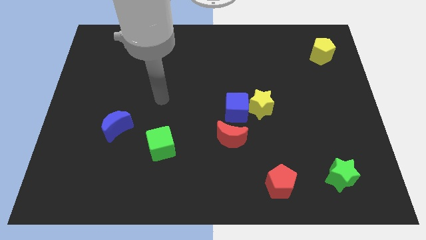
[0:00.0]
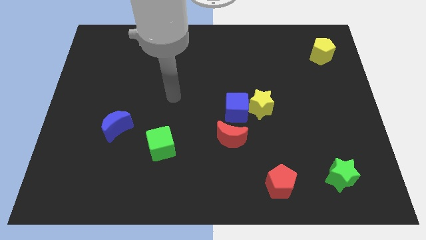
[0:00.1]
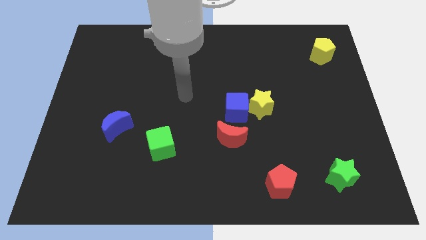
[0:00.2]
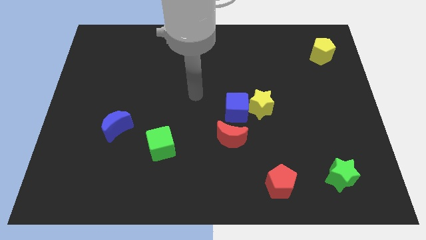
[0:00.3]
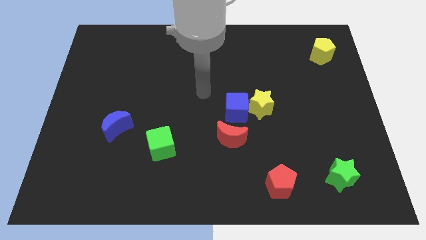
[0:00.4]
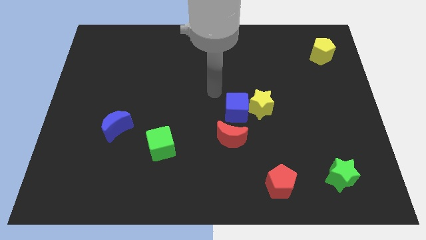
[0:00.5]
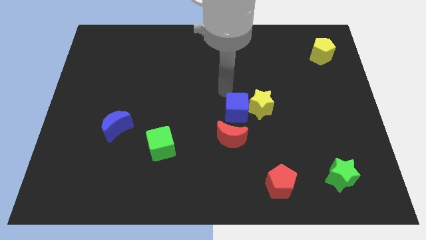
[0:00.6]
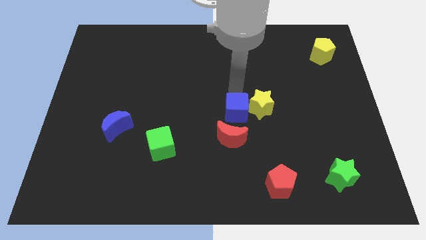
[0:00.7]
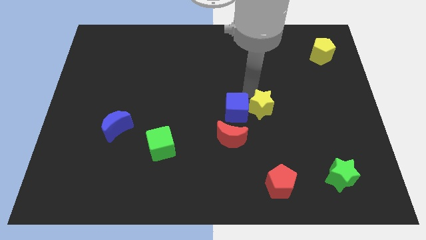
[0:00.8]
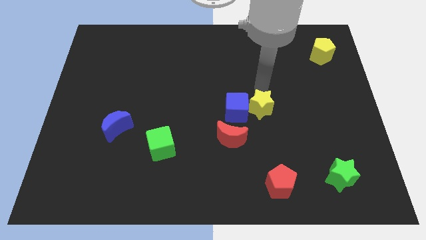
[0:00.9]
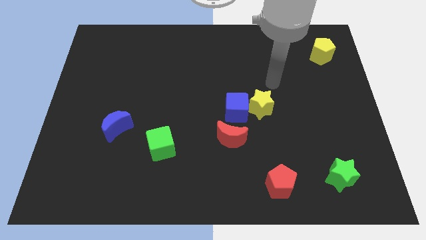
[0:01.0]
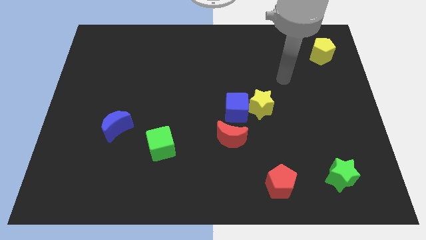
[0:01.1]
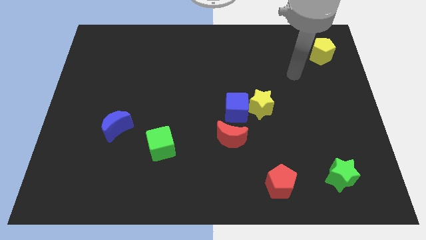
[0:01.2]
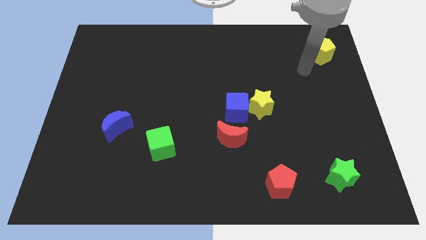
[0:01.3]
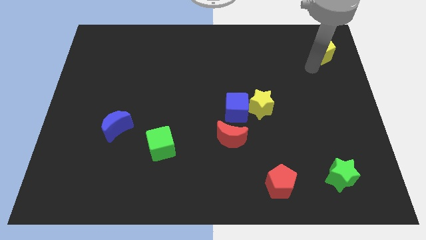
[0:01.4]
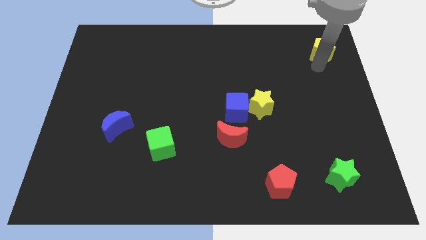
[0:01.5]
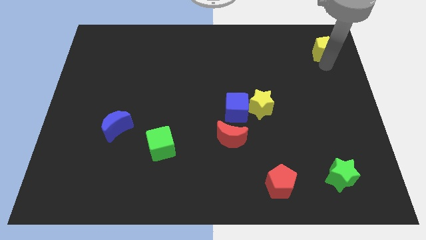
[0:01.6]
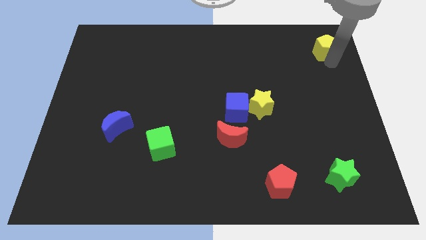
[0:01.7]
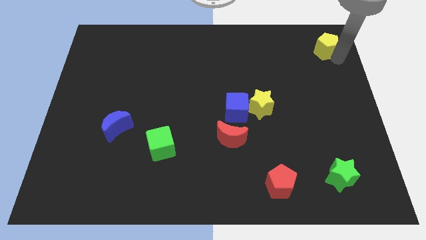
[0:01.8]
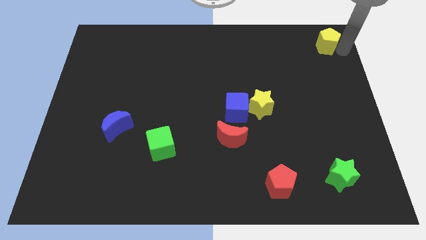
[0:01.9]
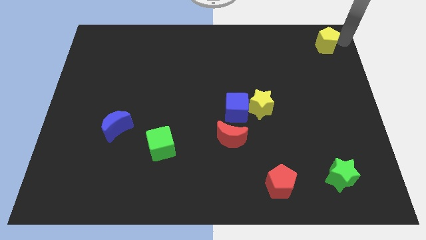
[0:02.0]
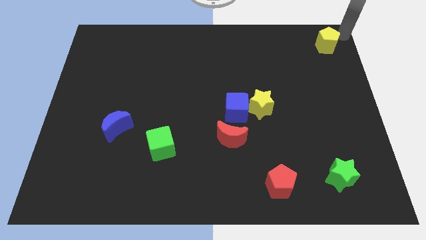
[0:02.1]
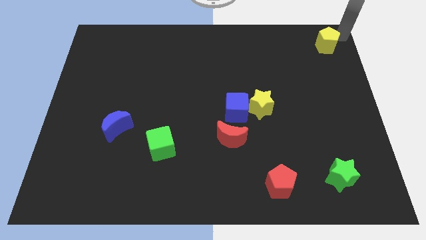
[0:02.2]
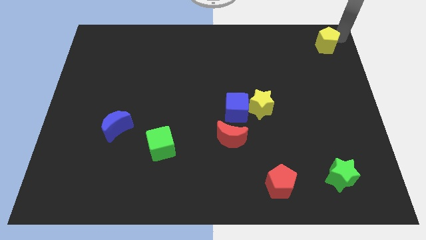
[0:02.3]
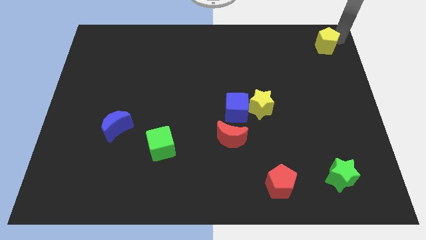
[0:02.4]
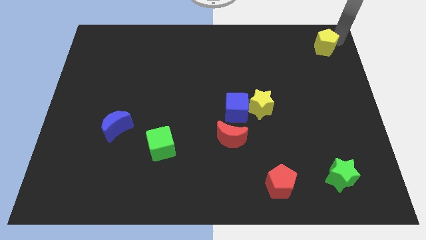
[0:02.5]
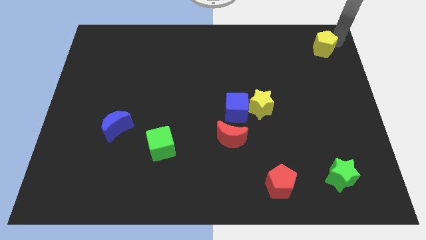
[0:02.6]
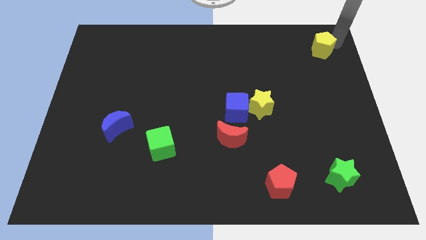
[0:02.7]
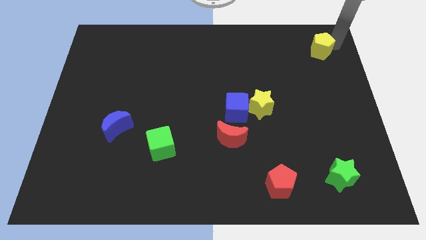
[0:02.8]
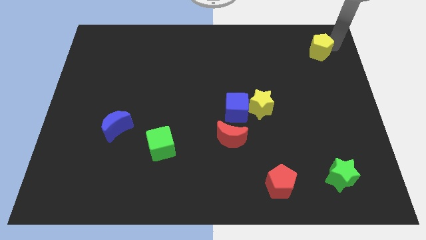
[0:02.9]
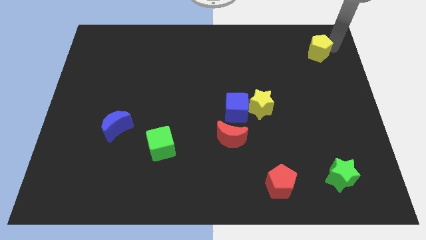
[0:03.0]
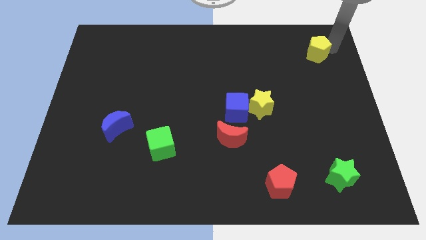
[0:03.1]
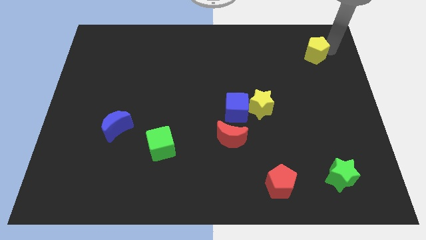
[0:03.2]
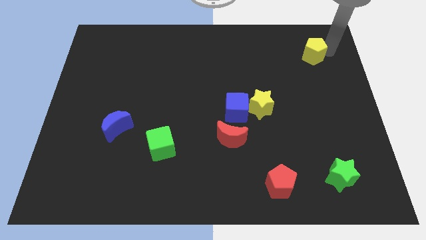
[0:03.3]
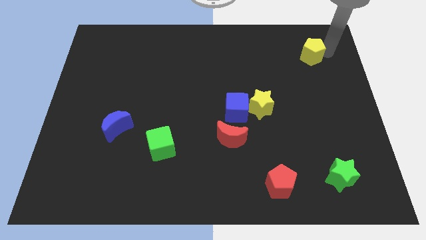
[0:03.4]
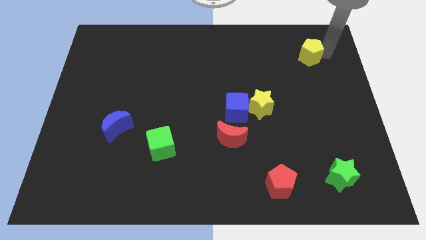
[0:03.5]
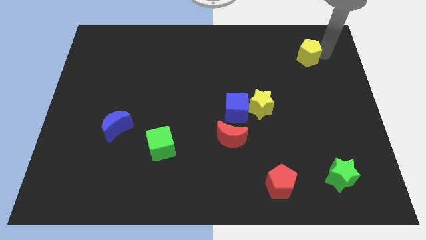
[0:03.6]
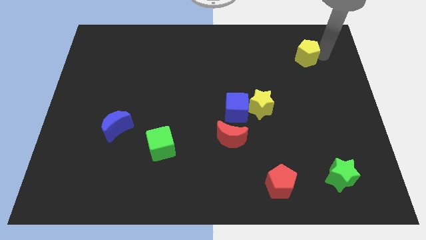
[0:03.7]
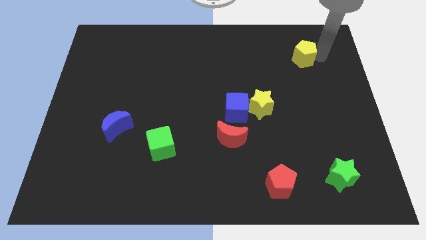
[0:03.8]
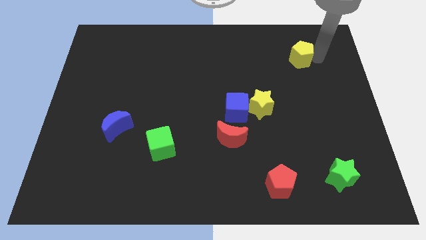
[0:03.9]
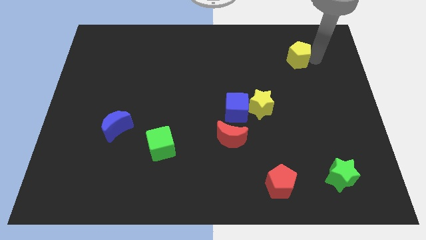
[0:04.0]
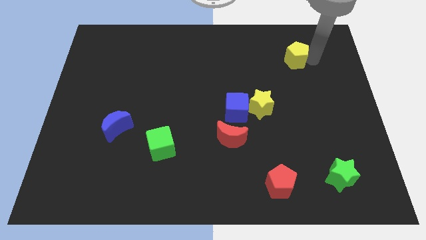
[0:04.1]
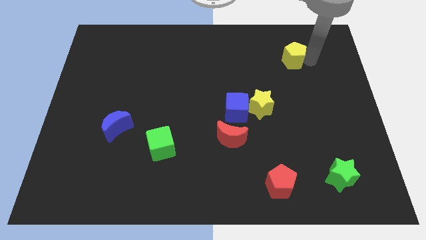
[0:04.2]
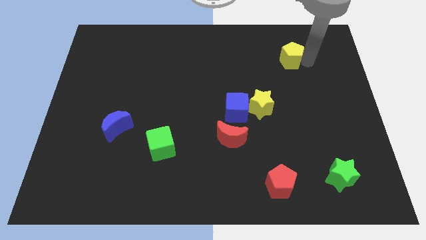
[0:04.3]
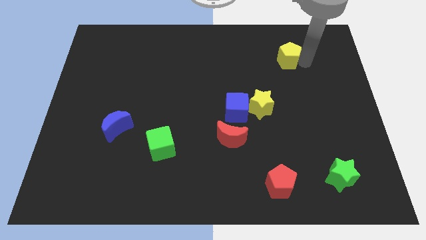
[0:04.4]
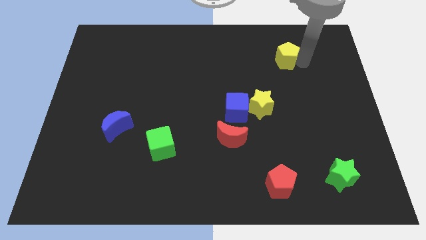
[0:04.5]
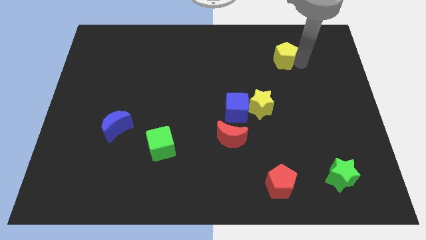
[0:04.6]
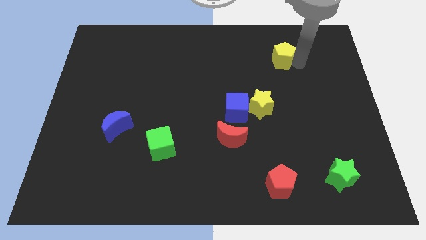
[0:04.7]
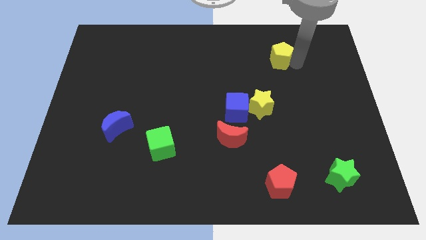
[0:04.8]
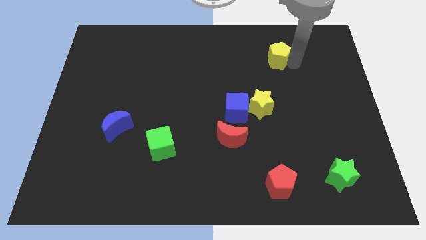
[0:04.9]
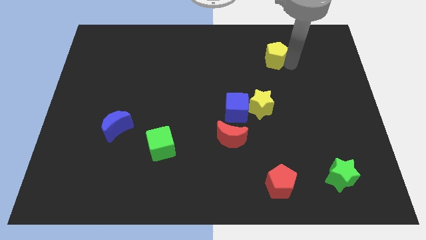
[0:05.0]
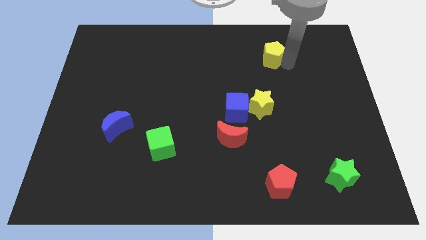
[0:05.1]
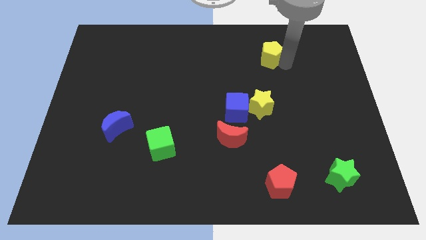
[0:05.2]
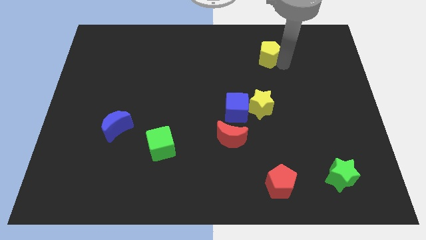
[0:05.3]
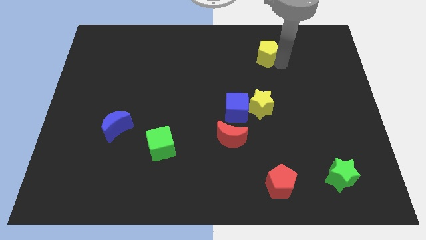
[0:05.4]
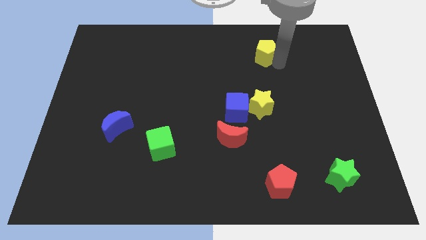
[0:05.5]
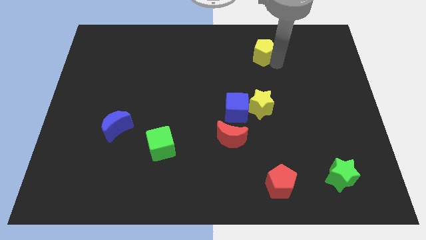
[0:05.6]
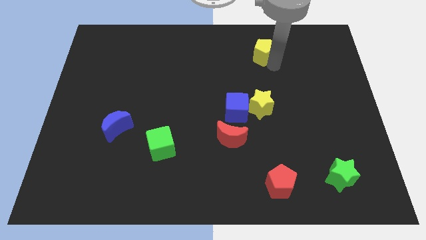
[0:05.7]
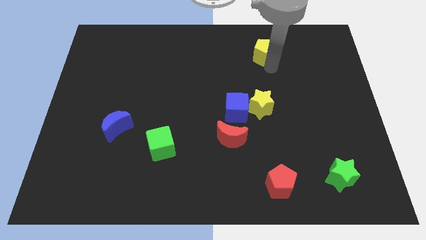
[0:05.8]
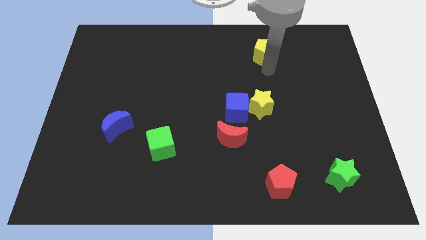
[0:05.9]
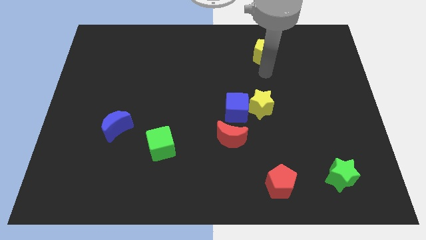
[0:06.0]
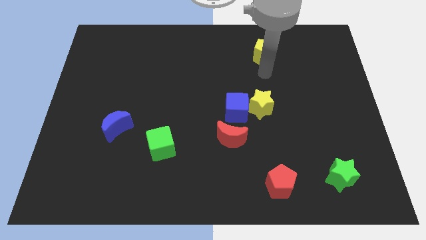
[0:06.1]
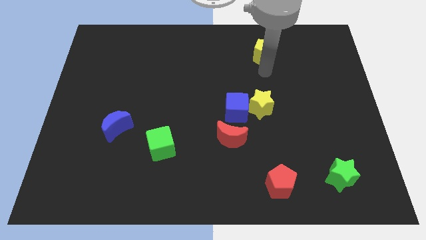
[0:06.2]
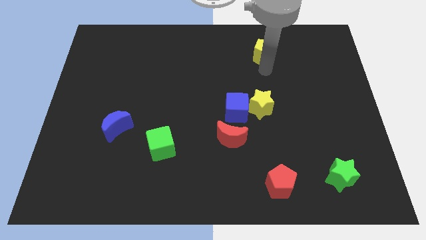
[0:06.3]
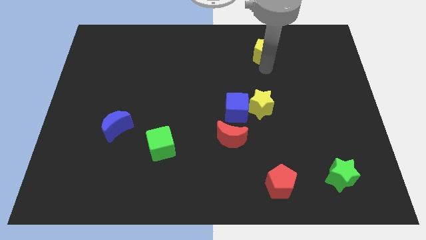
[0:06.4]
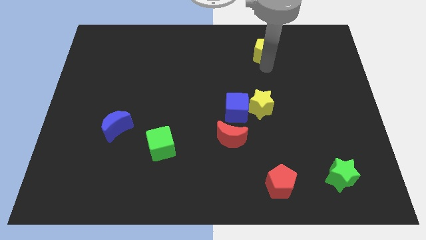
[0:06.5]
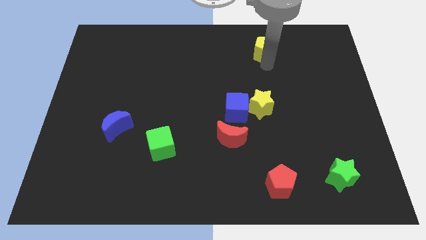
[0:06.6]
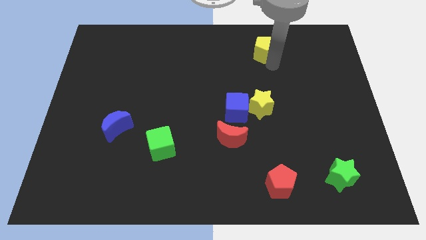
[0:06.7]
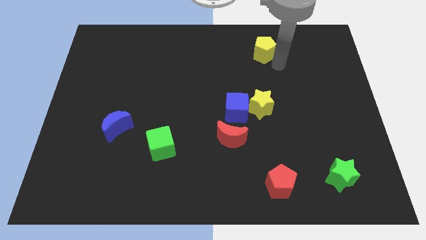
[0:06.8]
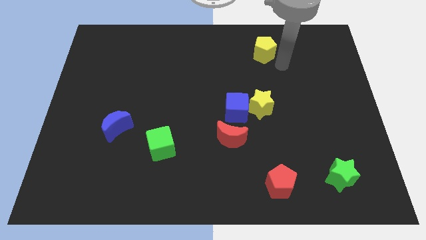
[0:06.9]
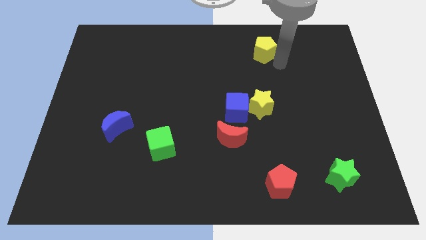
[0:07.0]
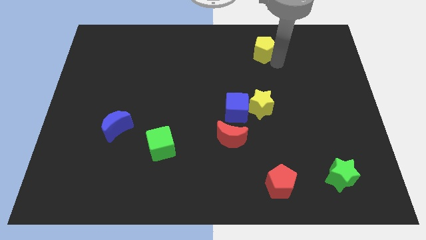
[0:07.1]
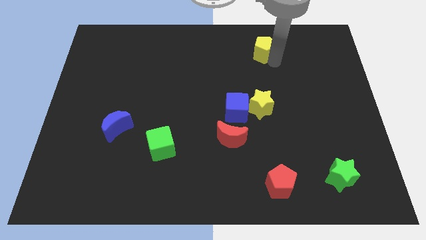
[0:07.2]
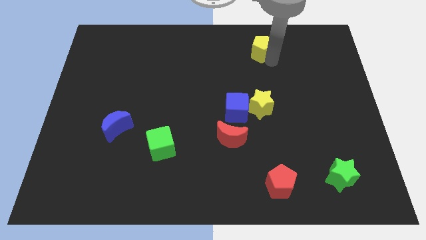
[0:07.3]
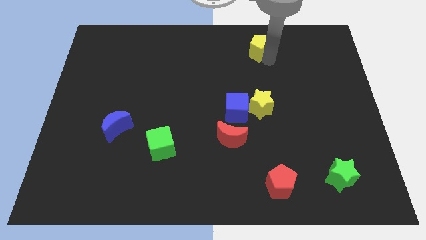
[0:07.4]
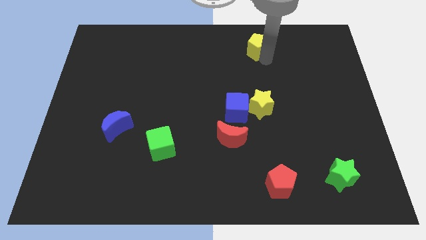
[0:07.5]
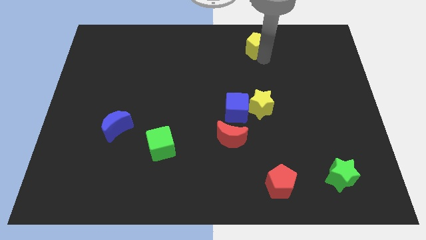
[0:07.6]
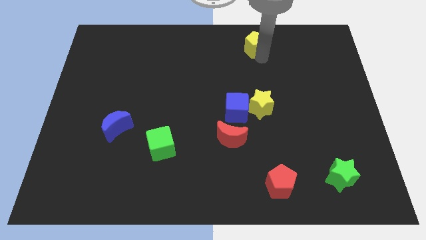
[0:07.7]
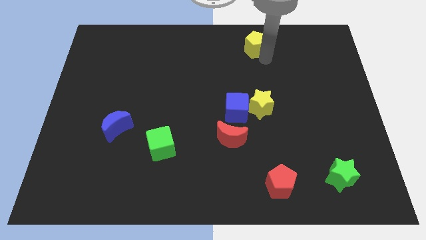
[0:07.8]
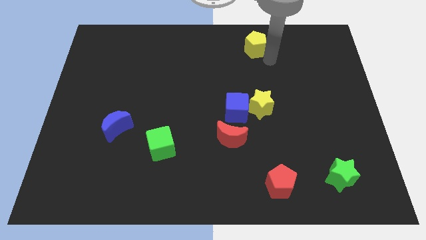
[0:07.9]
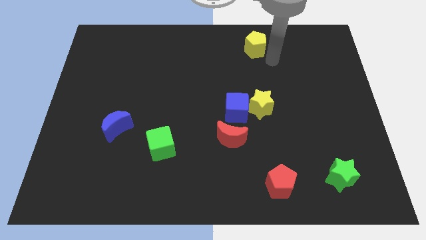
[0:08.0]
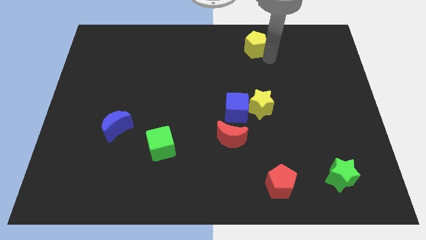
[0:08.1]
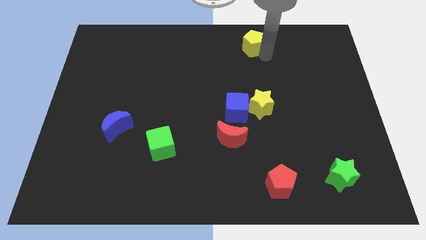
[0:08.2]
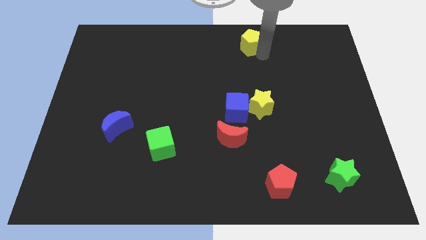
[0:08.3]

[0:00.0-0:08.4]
move the yellow pentagon to the towards your base
